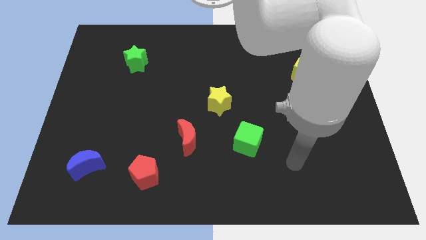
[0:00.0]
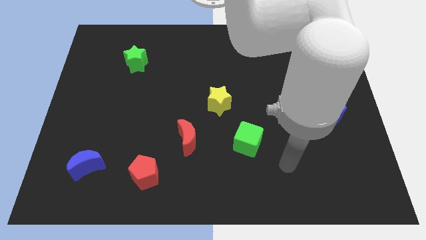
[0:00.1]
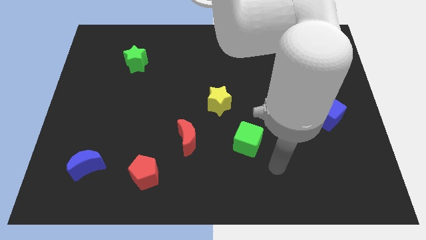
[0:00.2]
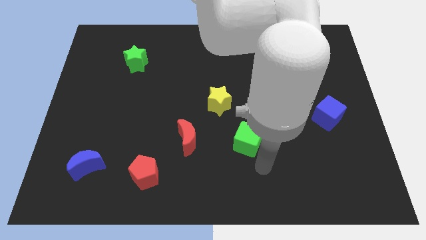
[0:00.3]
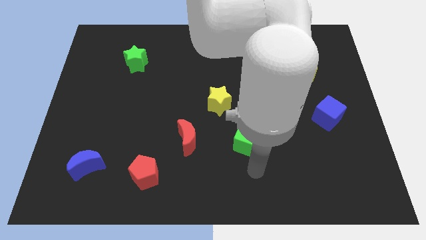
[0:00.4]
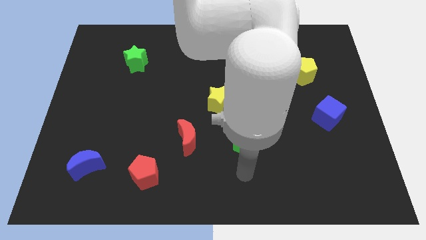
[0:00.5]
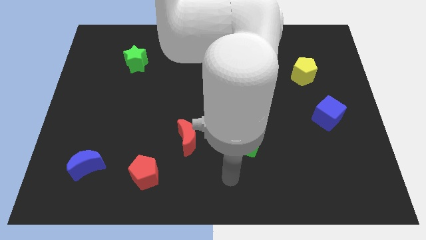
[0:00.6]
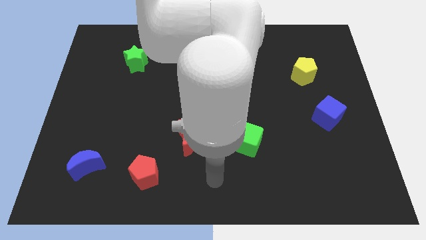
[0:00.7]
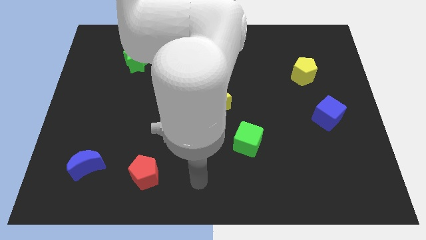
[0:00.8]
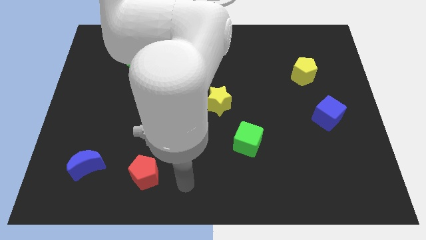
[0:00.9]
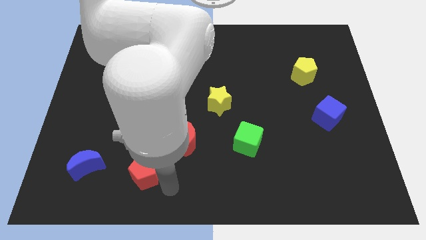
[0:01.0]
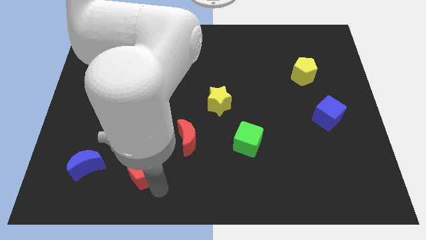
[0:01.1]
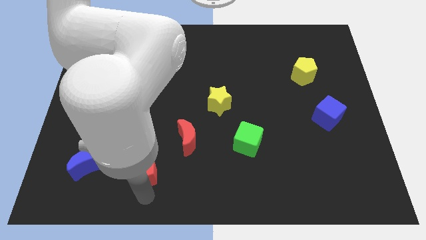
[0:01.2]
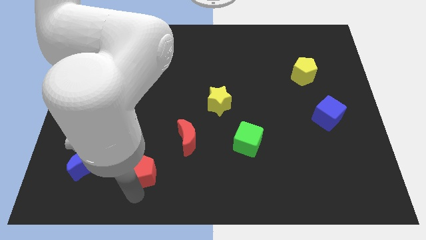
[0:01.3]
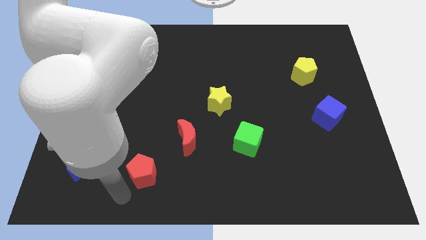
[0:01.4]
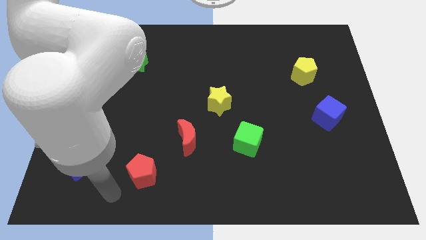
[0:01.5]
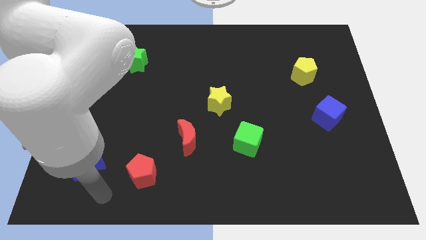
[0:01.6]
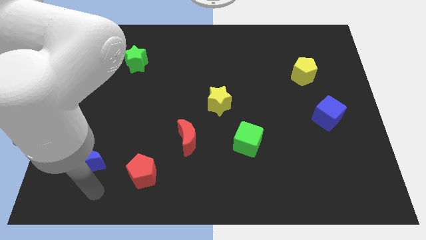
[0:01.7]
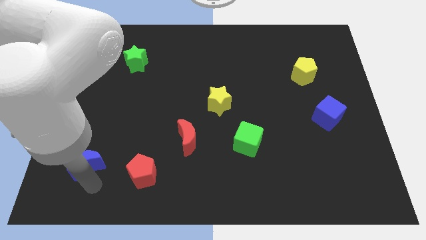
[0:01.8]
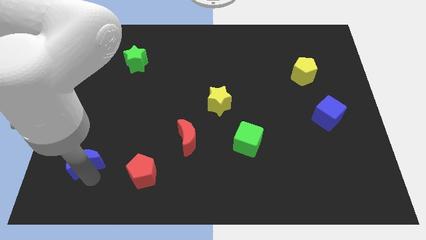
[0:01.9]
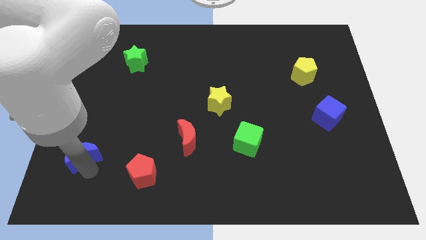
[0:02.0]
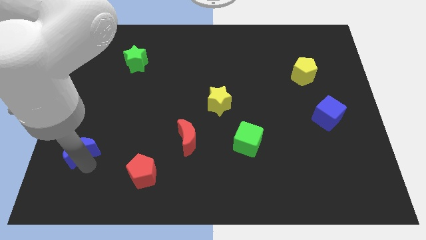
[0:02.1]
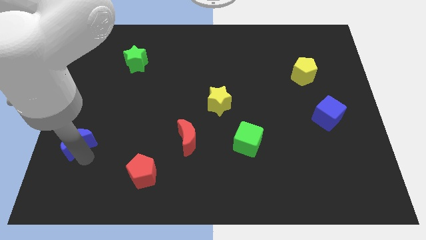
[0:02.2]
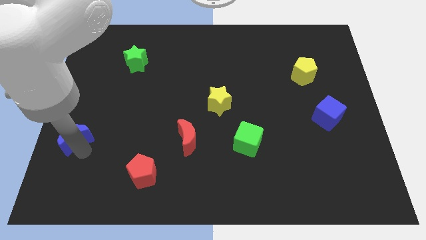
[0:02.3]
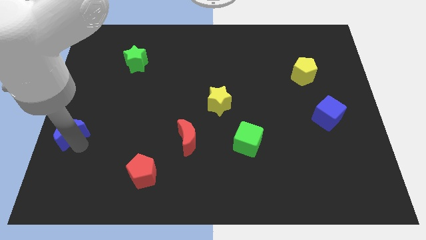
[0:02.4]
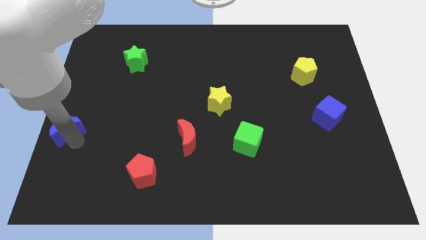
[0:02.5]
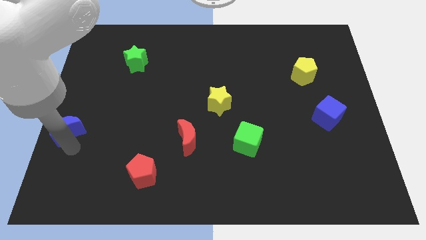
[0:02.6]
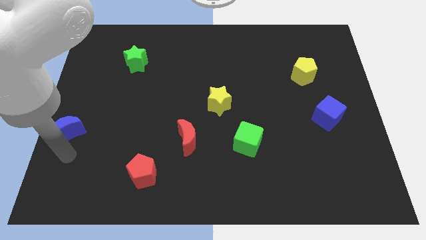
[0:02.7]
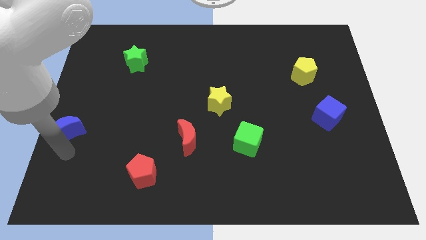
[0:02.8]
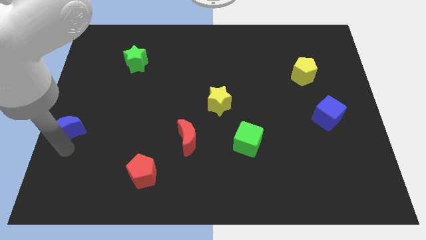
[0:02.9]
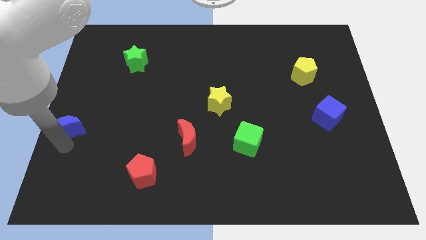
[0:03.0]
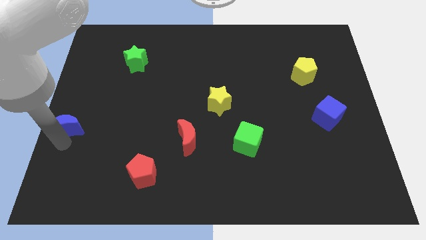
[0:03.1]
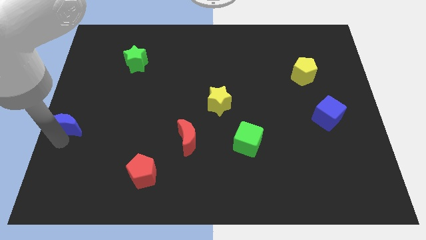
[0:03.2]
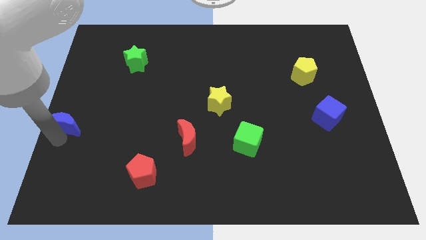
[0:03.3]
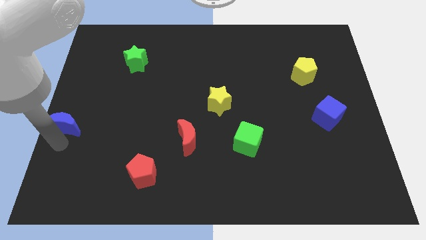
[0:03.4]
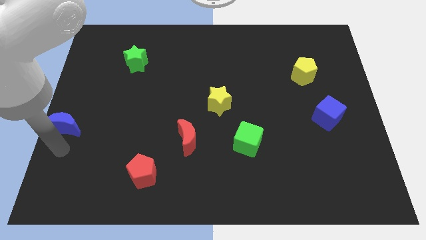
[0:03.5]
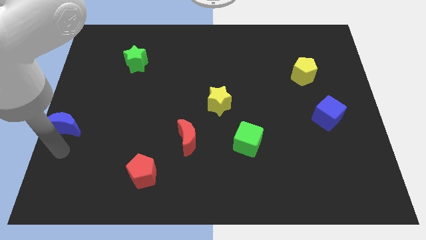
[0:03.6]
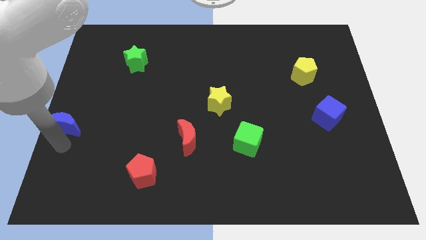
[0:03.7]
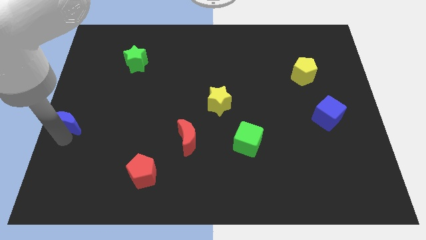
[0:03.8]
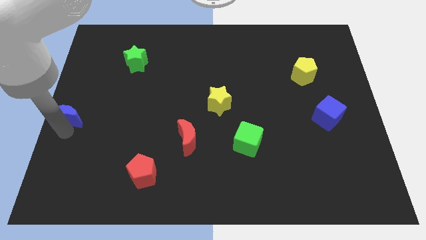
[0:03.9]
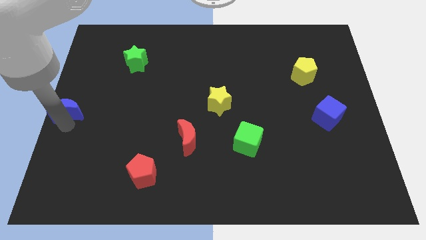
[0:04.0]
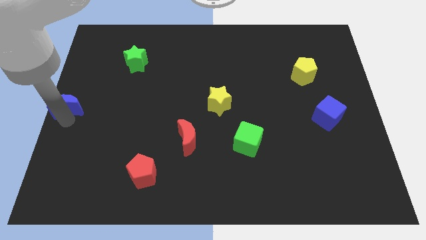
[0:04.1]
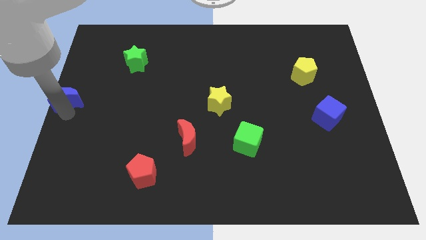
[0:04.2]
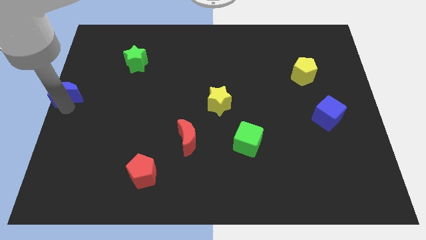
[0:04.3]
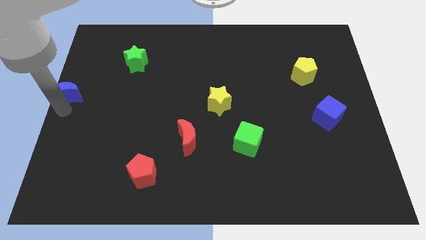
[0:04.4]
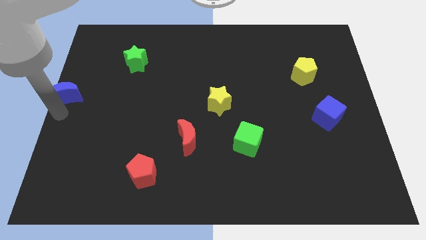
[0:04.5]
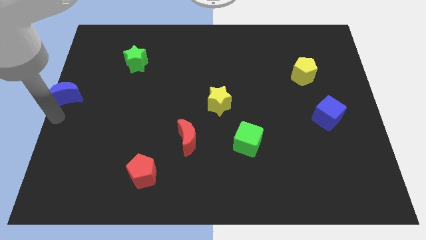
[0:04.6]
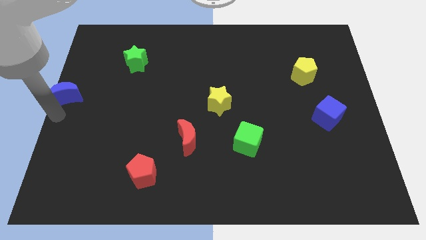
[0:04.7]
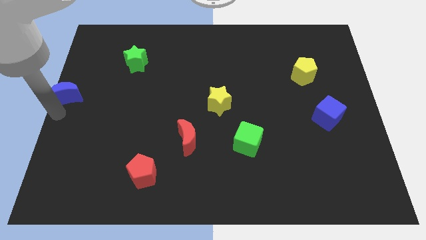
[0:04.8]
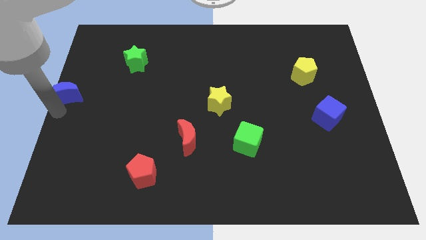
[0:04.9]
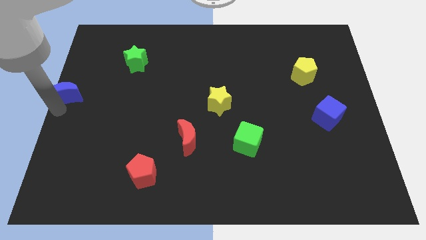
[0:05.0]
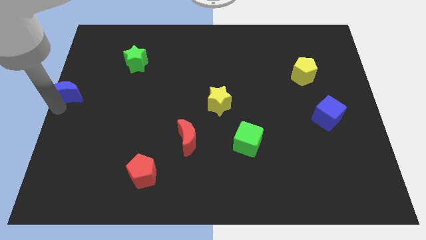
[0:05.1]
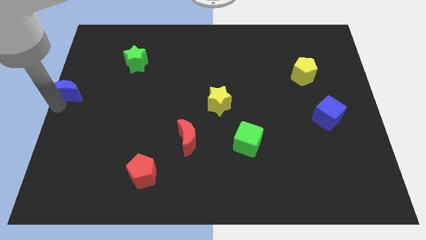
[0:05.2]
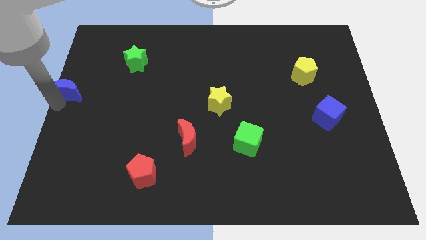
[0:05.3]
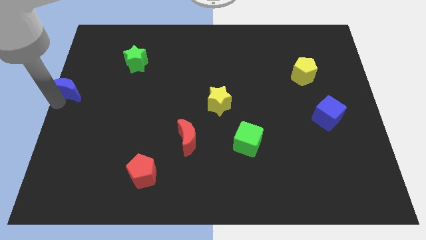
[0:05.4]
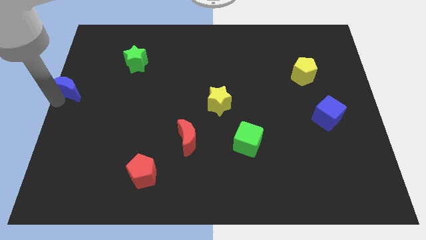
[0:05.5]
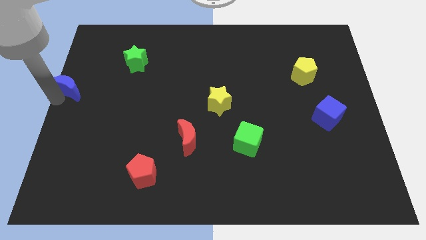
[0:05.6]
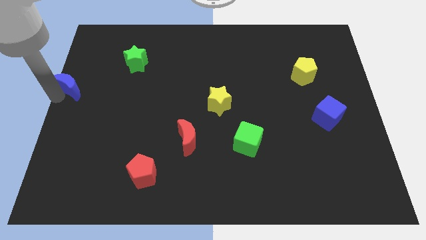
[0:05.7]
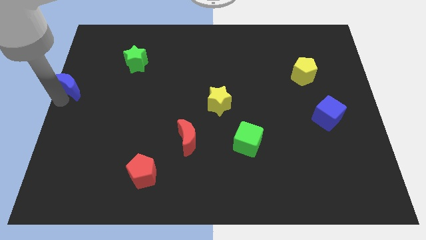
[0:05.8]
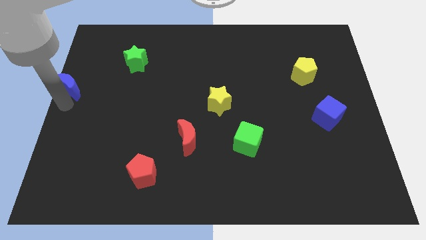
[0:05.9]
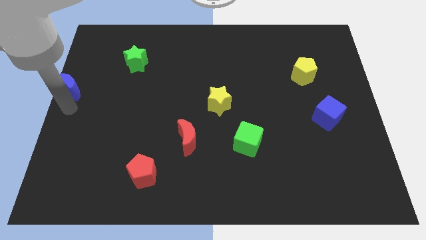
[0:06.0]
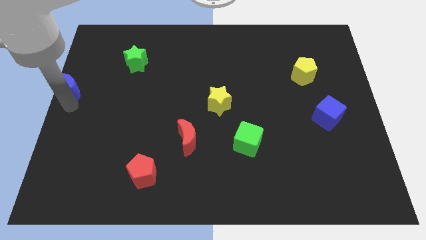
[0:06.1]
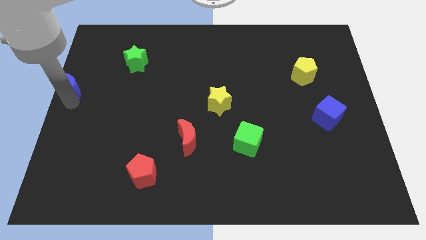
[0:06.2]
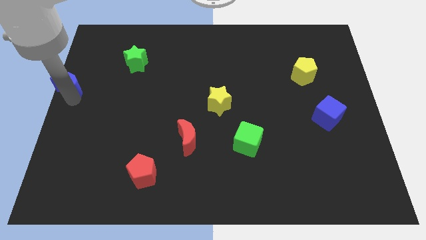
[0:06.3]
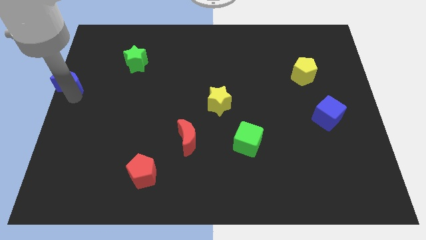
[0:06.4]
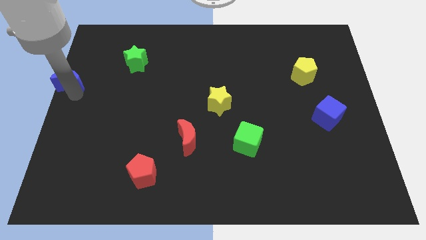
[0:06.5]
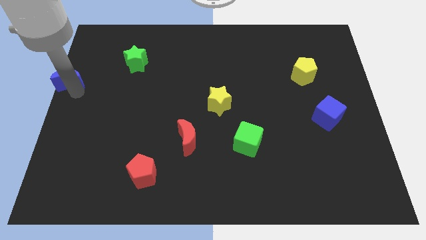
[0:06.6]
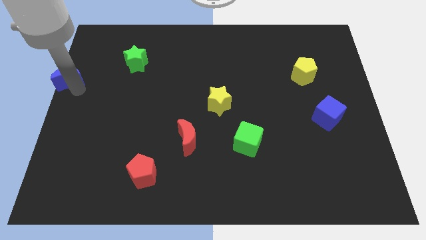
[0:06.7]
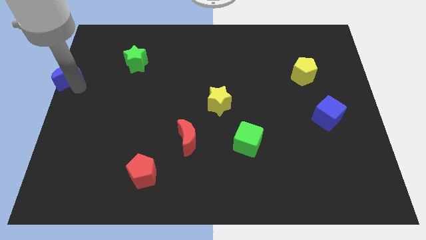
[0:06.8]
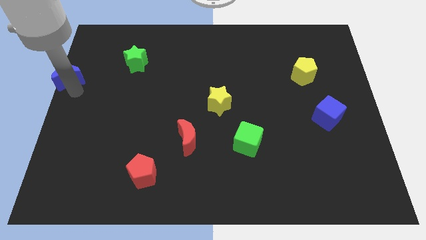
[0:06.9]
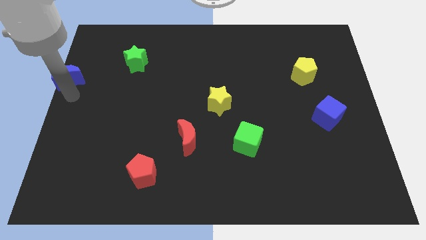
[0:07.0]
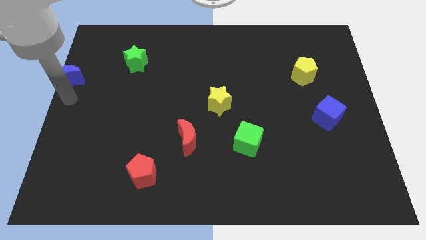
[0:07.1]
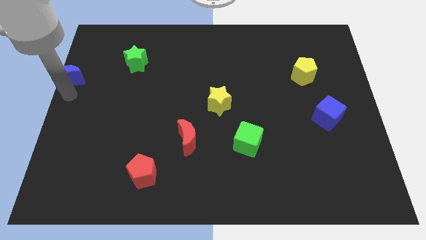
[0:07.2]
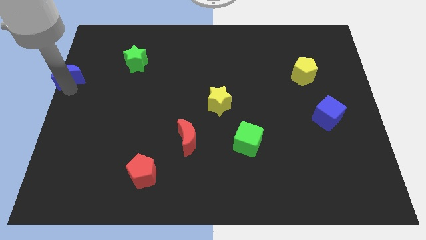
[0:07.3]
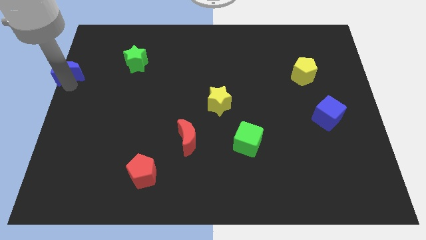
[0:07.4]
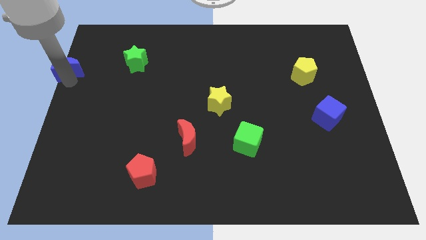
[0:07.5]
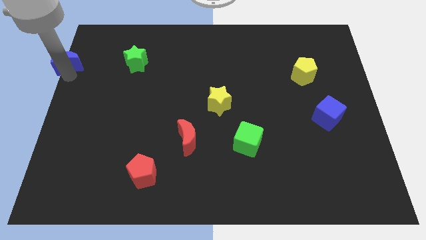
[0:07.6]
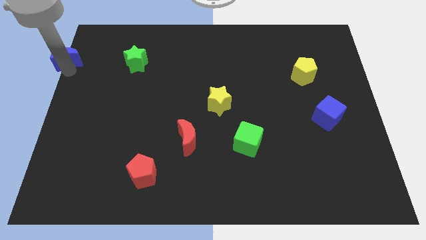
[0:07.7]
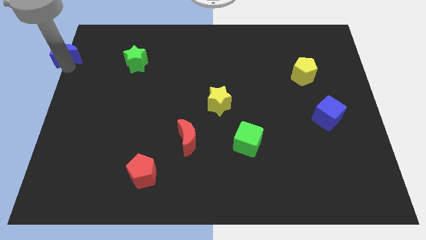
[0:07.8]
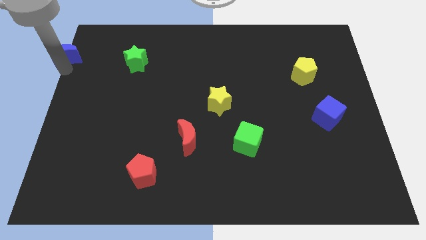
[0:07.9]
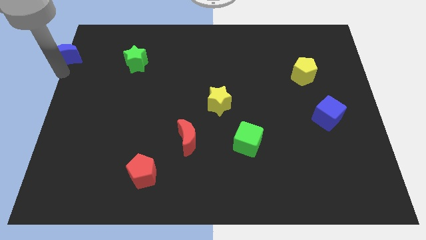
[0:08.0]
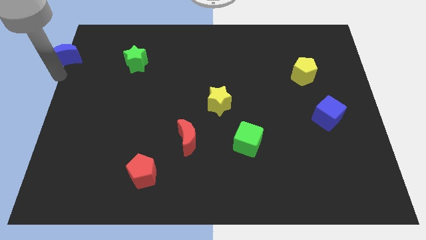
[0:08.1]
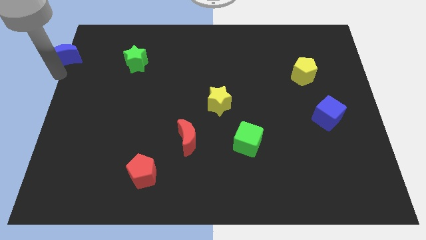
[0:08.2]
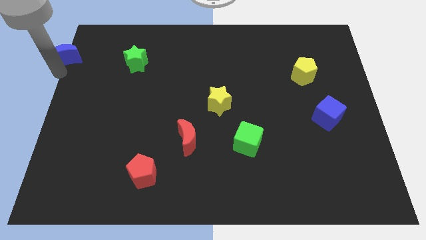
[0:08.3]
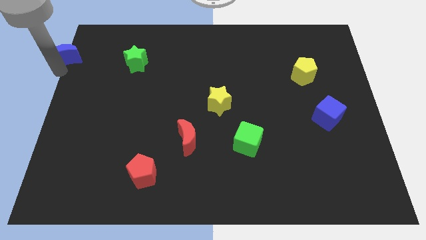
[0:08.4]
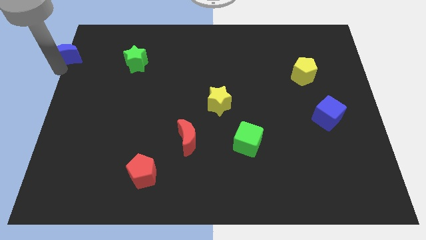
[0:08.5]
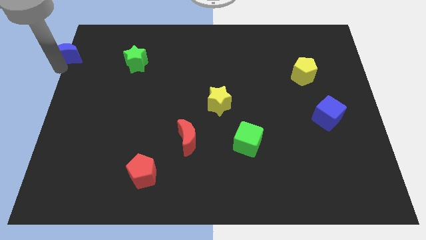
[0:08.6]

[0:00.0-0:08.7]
move the blue moon to the top left corner
